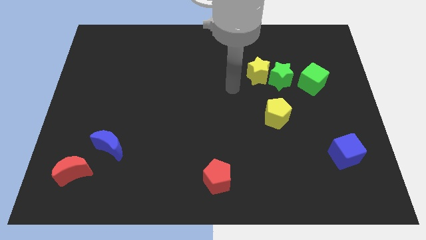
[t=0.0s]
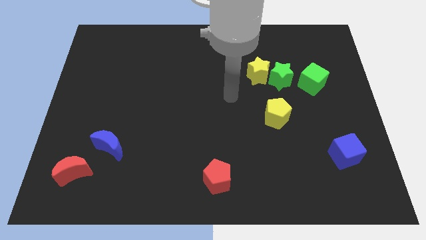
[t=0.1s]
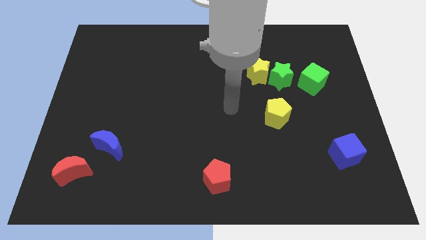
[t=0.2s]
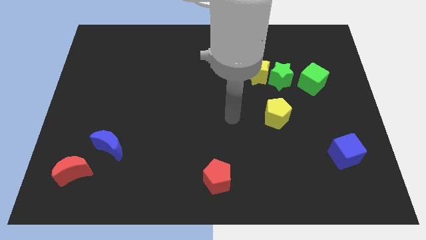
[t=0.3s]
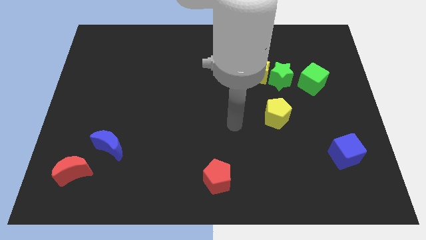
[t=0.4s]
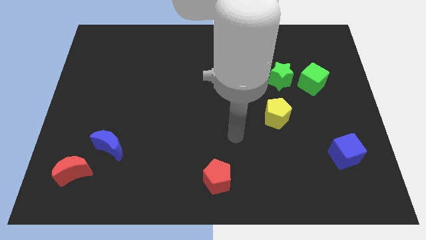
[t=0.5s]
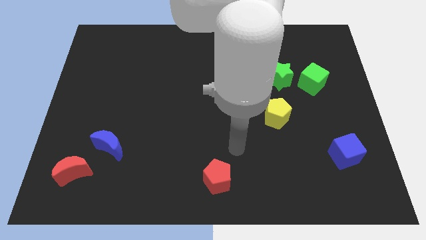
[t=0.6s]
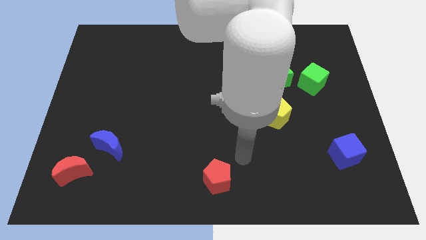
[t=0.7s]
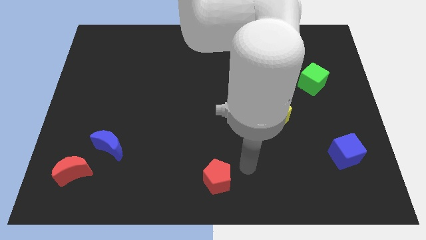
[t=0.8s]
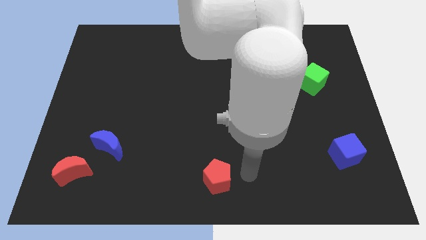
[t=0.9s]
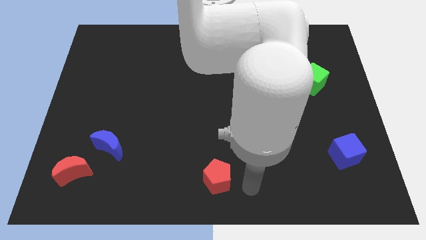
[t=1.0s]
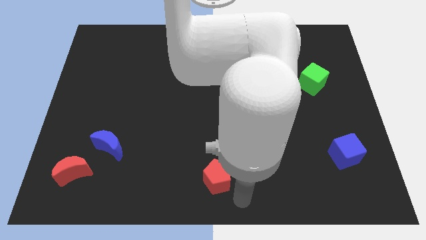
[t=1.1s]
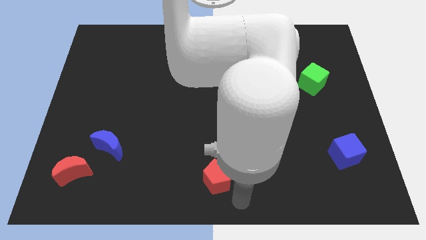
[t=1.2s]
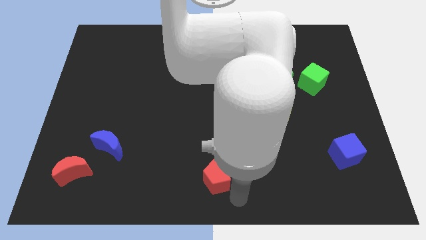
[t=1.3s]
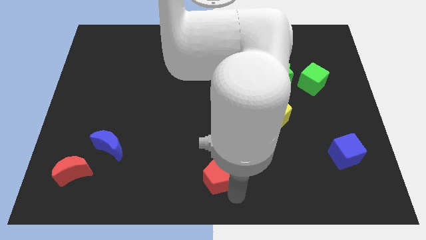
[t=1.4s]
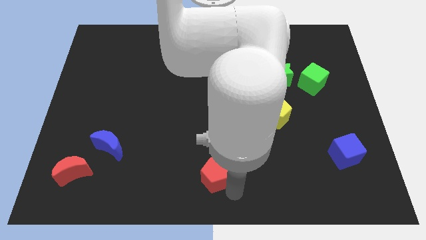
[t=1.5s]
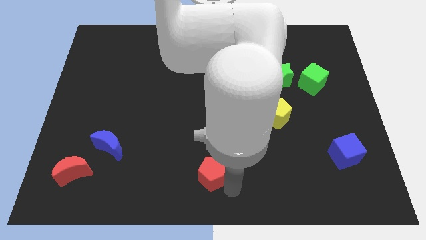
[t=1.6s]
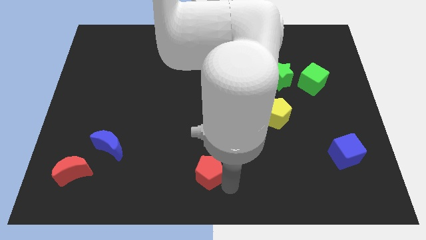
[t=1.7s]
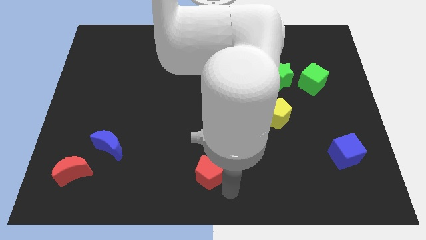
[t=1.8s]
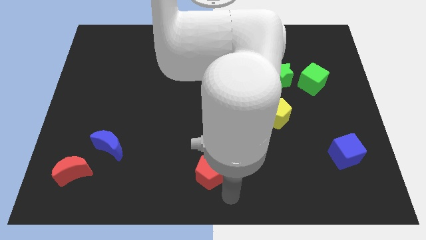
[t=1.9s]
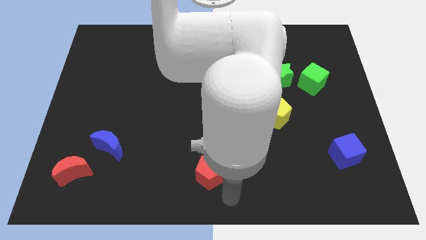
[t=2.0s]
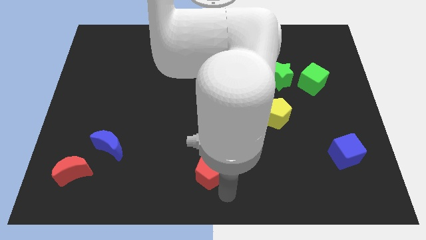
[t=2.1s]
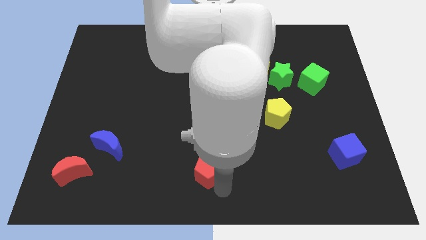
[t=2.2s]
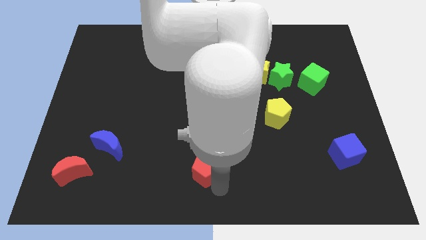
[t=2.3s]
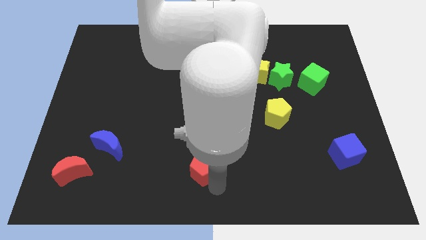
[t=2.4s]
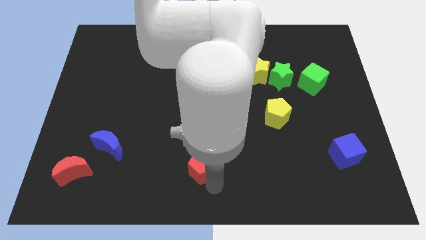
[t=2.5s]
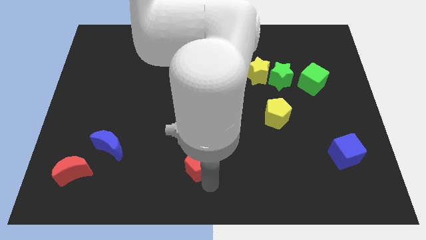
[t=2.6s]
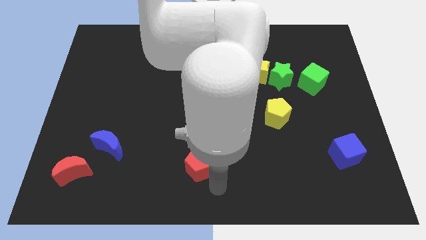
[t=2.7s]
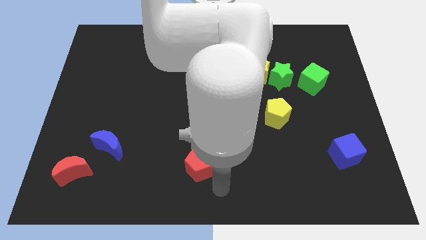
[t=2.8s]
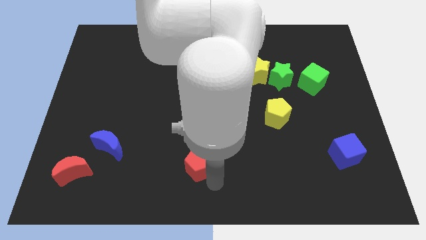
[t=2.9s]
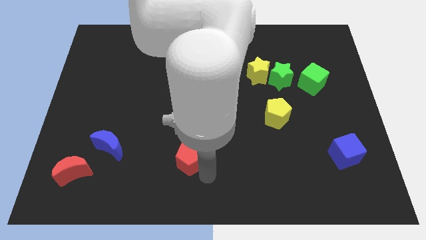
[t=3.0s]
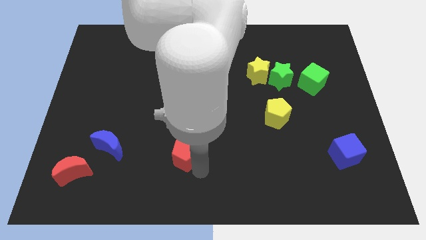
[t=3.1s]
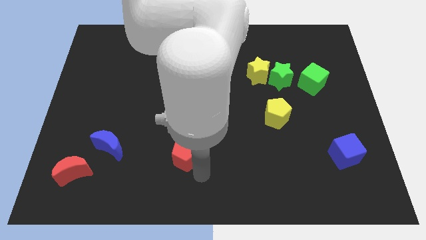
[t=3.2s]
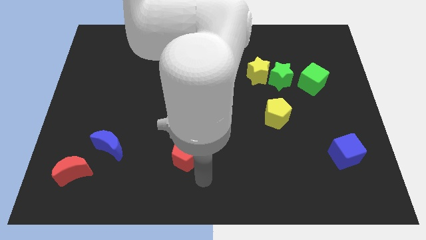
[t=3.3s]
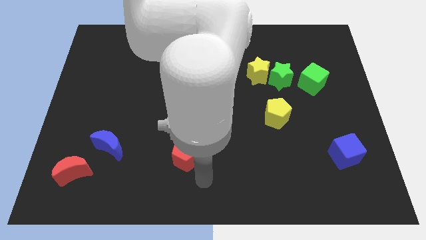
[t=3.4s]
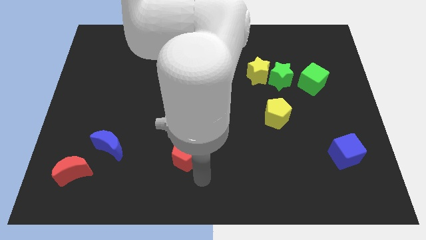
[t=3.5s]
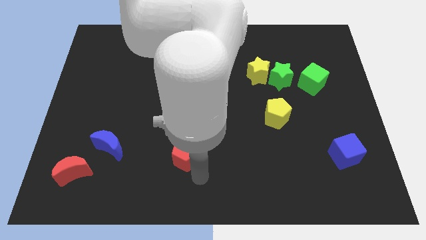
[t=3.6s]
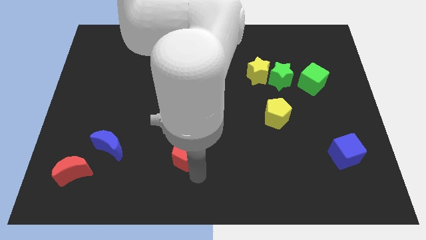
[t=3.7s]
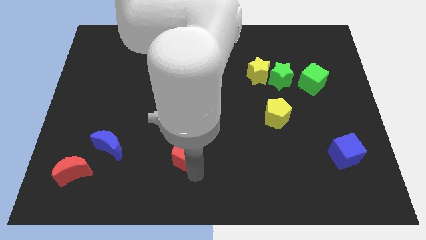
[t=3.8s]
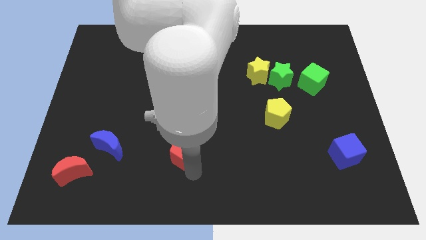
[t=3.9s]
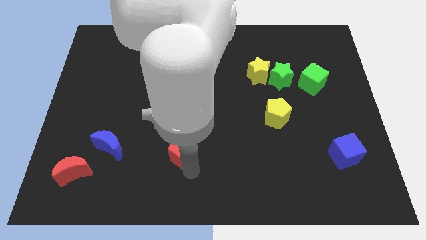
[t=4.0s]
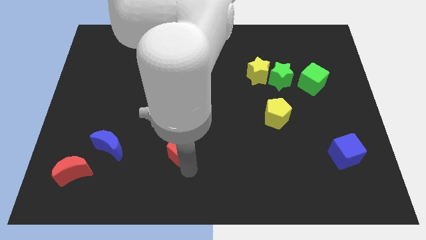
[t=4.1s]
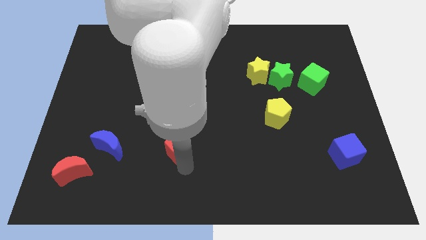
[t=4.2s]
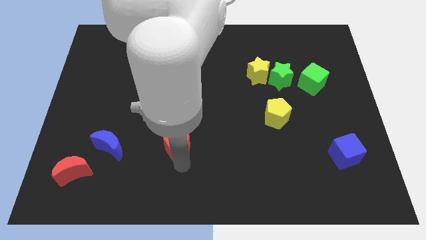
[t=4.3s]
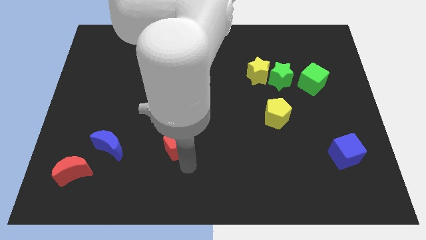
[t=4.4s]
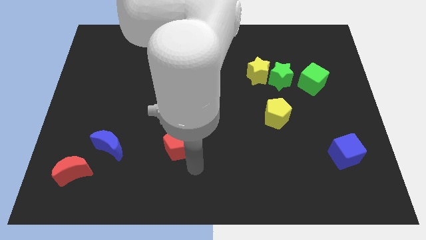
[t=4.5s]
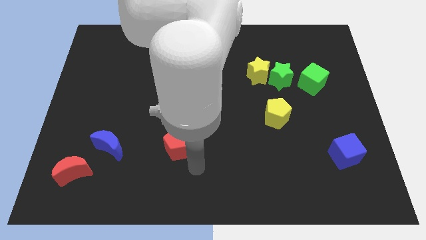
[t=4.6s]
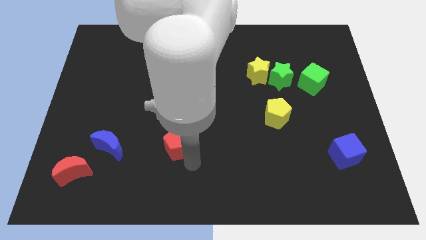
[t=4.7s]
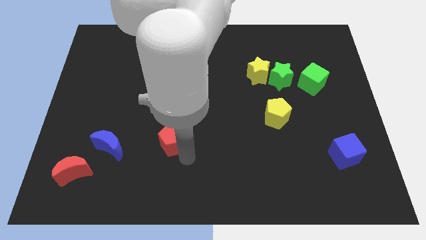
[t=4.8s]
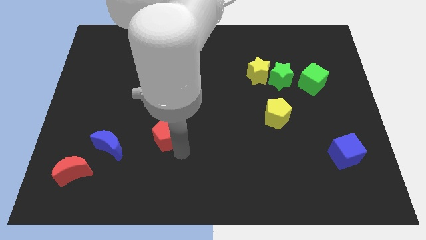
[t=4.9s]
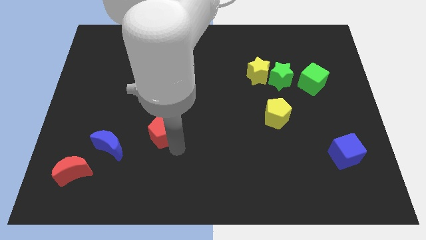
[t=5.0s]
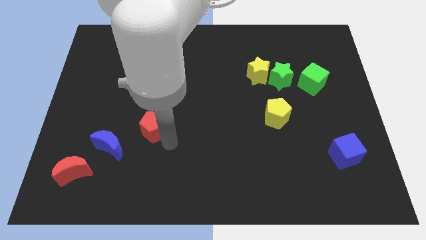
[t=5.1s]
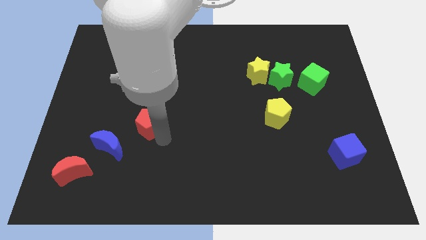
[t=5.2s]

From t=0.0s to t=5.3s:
move the red pentagon up and to the left diagonally

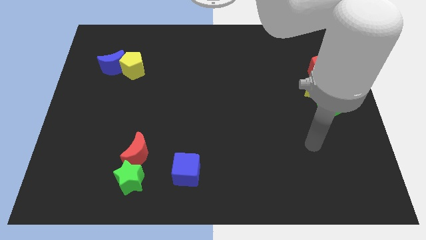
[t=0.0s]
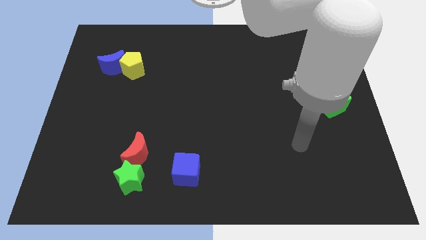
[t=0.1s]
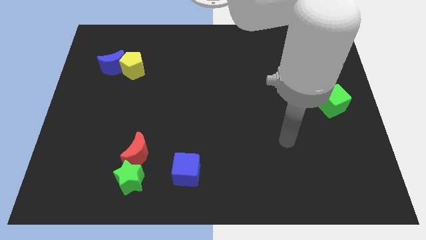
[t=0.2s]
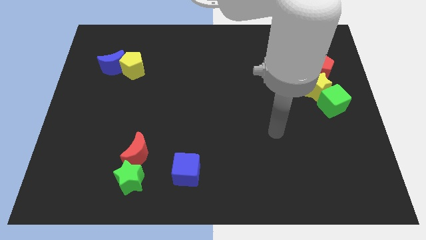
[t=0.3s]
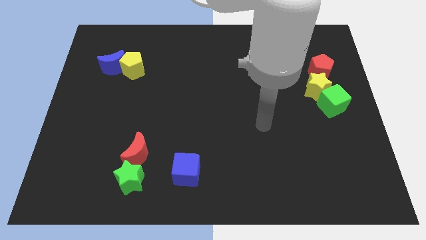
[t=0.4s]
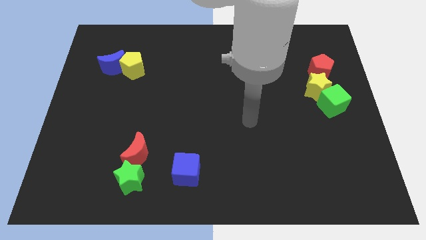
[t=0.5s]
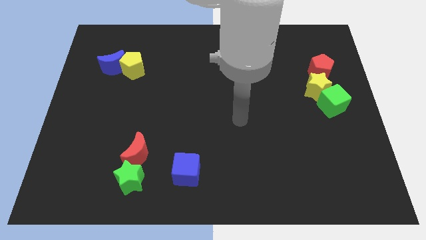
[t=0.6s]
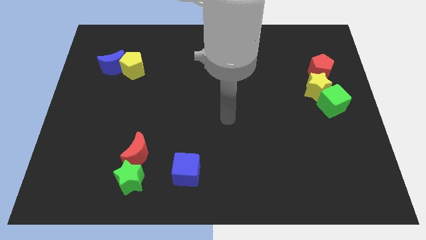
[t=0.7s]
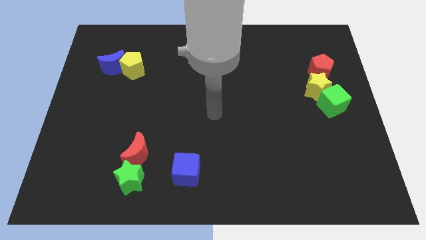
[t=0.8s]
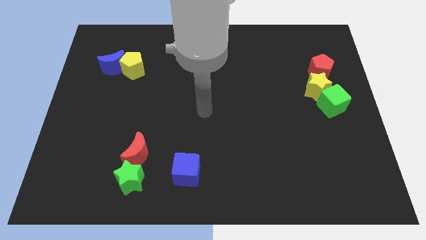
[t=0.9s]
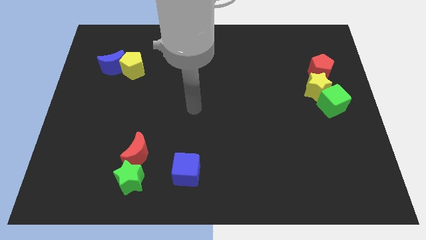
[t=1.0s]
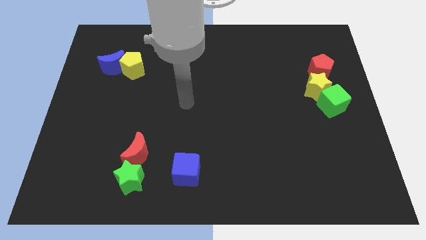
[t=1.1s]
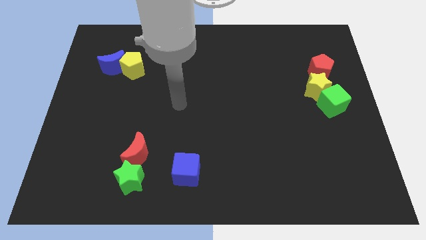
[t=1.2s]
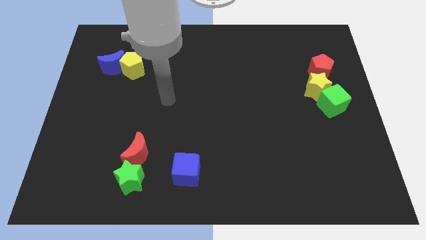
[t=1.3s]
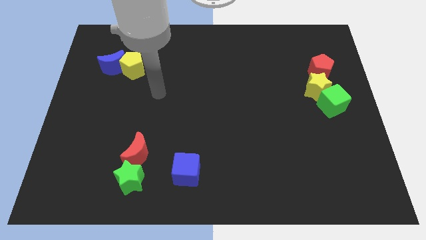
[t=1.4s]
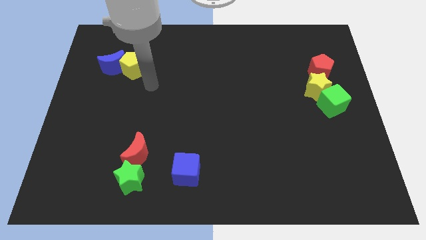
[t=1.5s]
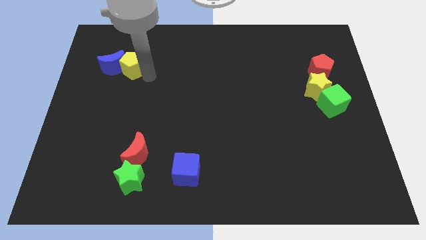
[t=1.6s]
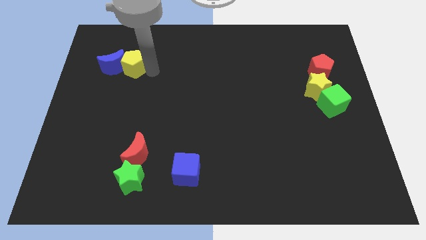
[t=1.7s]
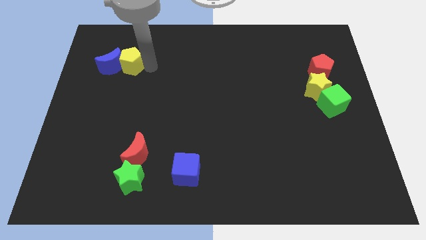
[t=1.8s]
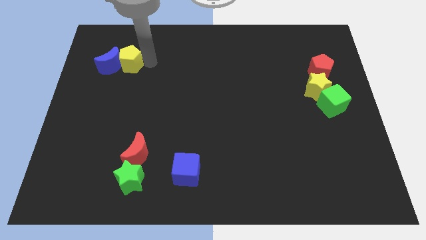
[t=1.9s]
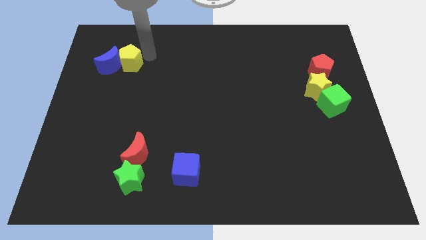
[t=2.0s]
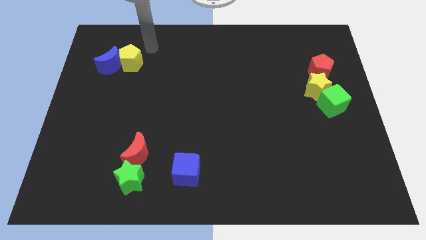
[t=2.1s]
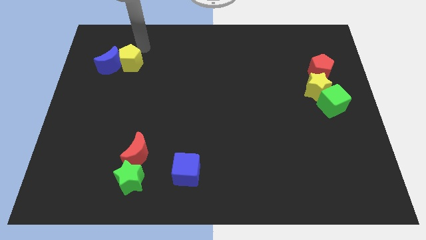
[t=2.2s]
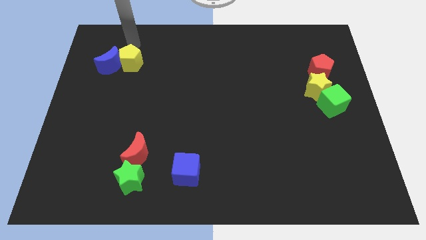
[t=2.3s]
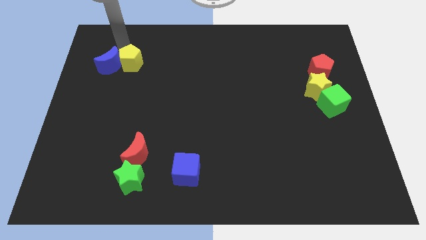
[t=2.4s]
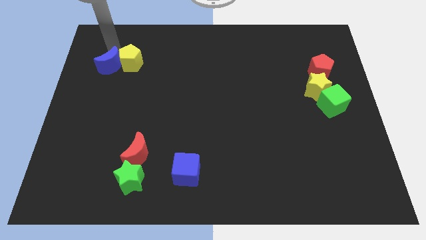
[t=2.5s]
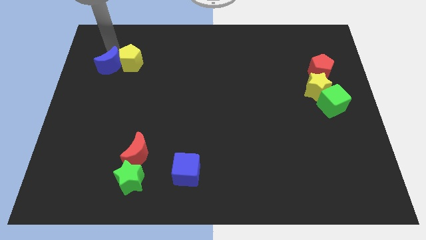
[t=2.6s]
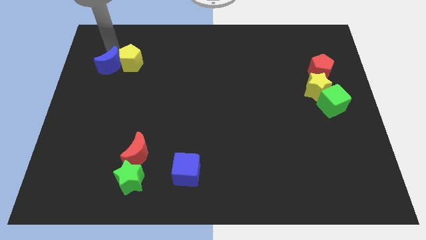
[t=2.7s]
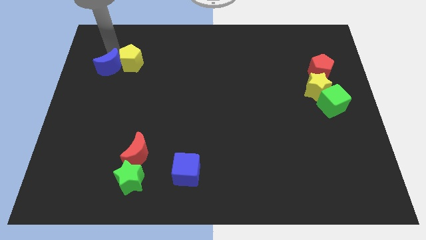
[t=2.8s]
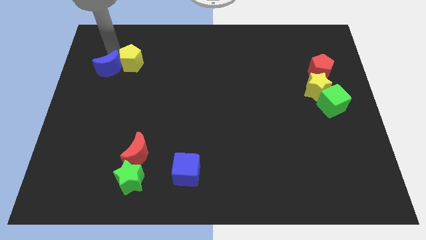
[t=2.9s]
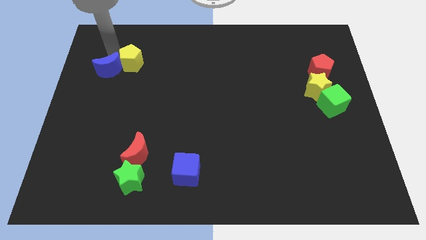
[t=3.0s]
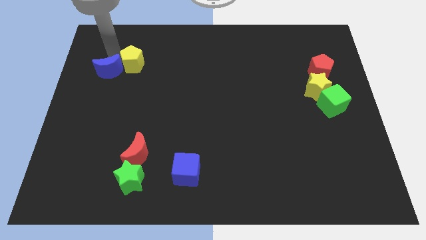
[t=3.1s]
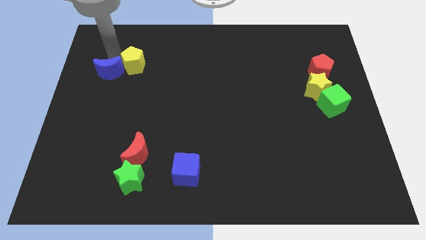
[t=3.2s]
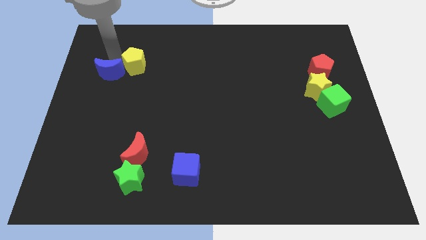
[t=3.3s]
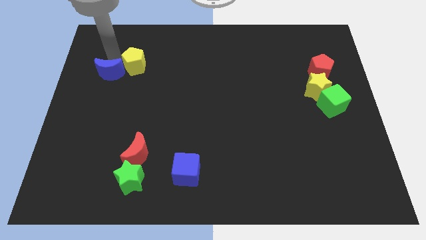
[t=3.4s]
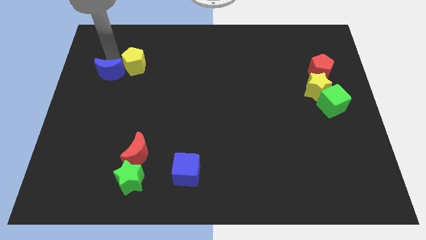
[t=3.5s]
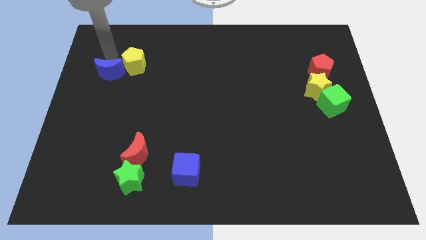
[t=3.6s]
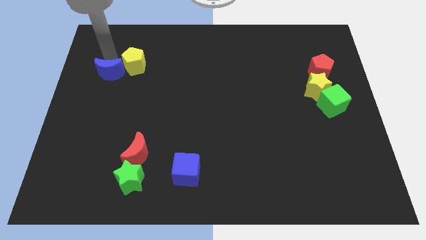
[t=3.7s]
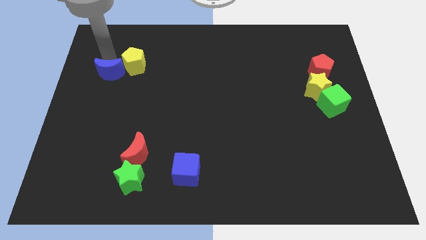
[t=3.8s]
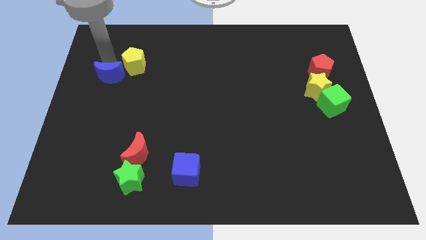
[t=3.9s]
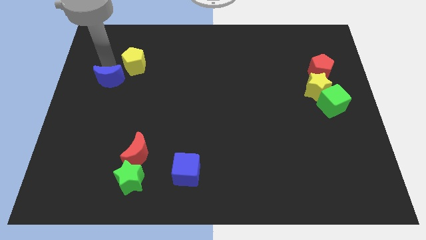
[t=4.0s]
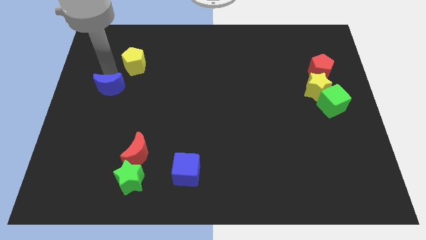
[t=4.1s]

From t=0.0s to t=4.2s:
slightly slide the blue moon down
